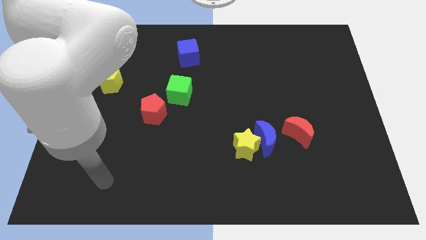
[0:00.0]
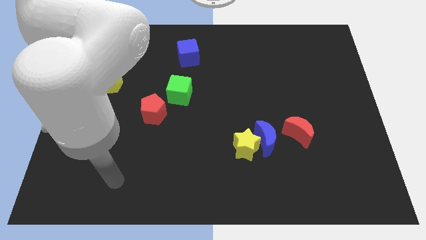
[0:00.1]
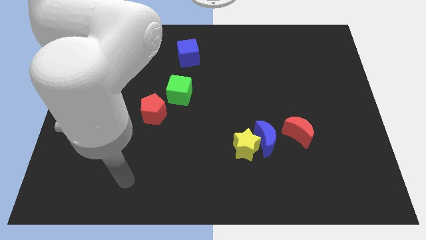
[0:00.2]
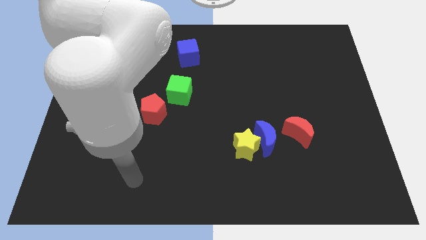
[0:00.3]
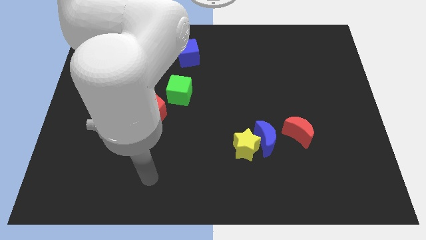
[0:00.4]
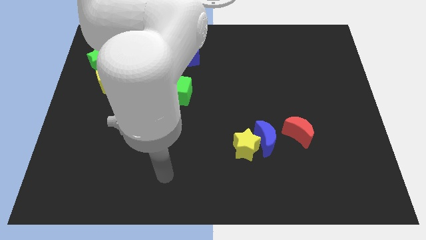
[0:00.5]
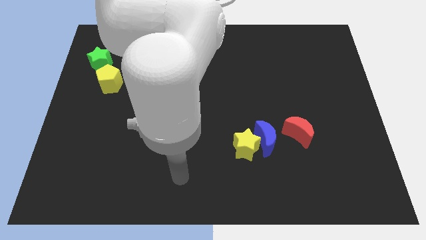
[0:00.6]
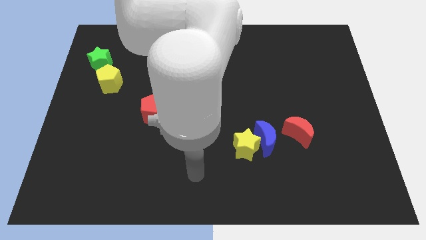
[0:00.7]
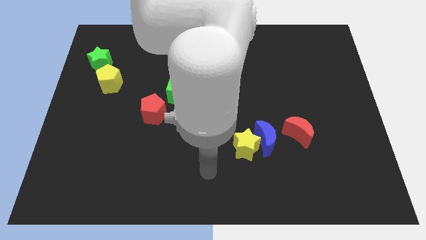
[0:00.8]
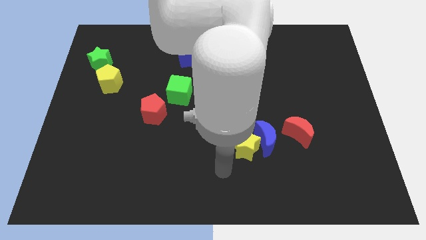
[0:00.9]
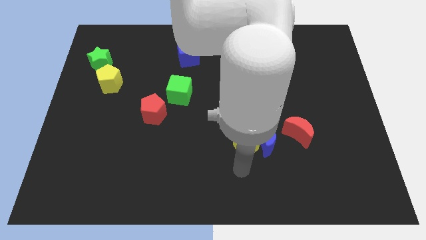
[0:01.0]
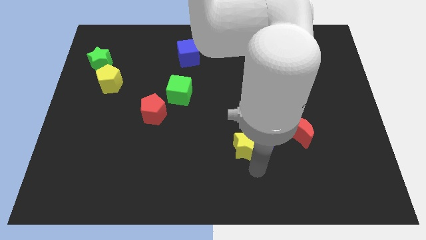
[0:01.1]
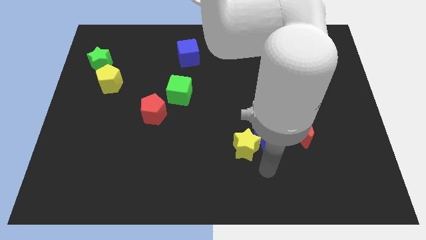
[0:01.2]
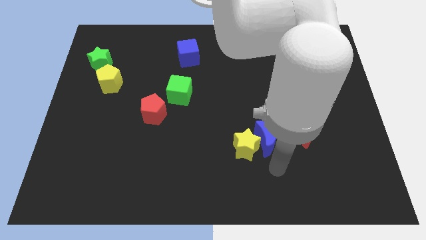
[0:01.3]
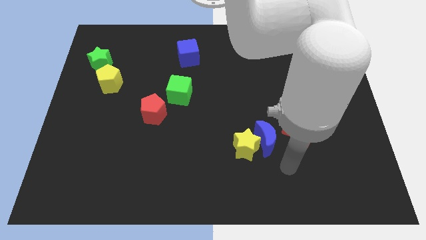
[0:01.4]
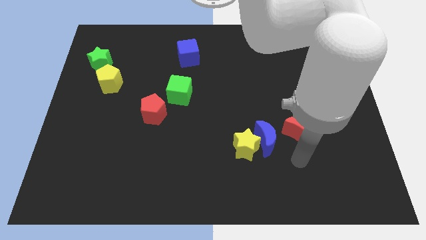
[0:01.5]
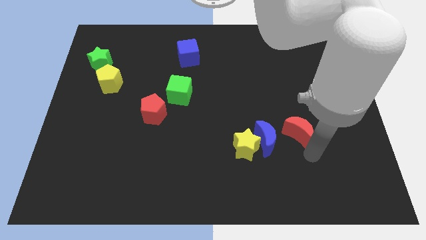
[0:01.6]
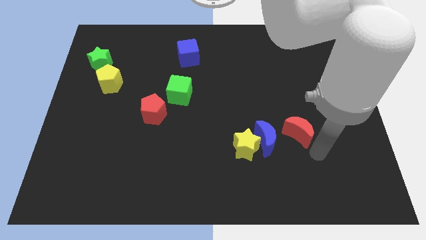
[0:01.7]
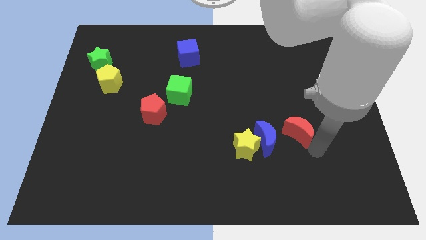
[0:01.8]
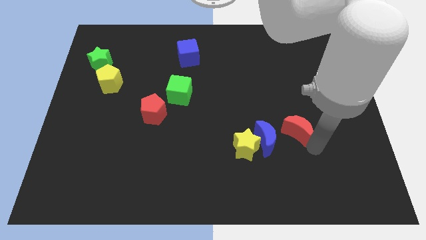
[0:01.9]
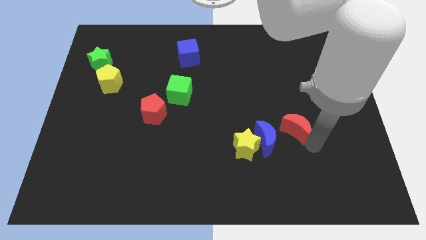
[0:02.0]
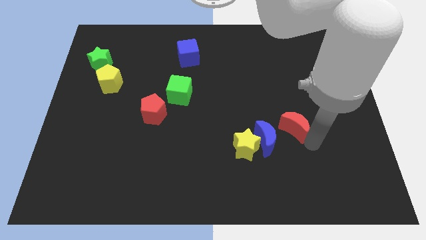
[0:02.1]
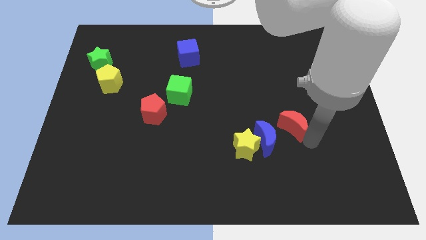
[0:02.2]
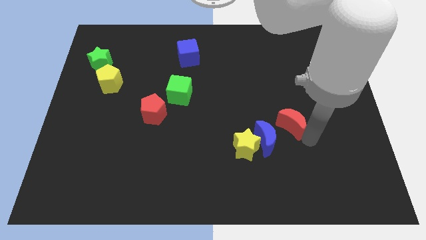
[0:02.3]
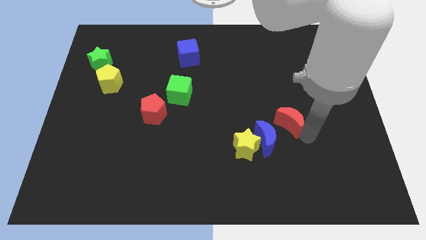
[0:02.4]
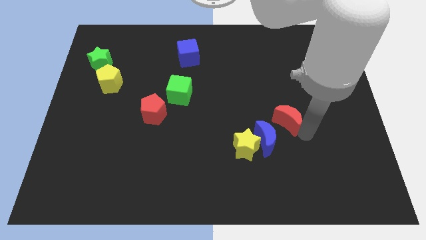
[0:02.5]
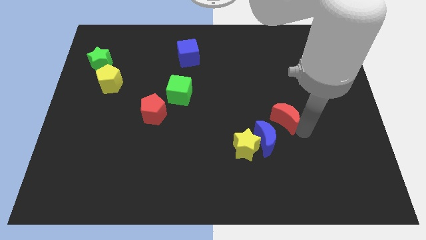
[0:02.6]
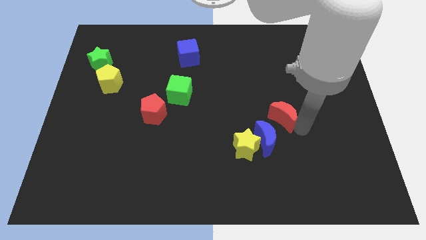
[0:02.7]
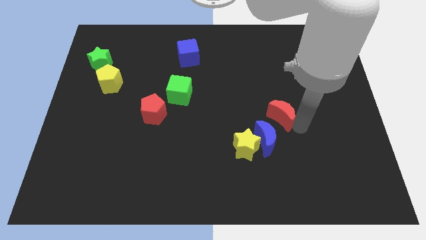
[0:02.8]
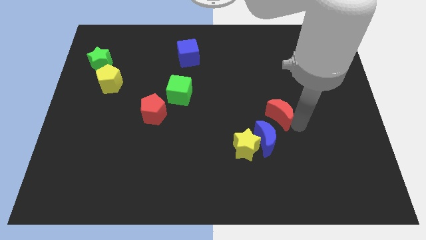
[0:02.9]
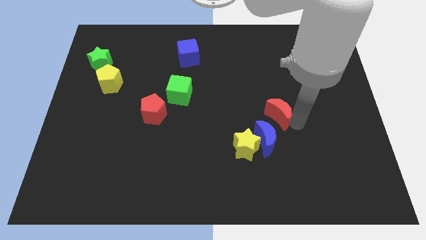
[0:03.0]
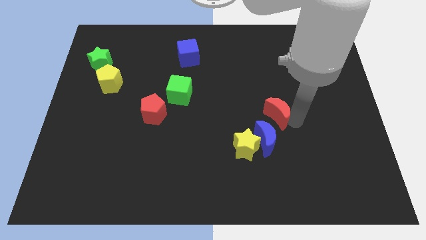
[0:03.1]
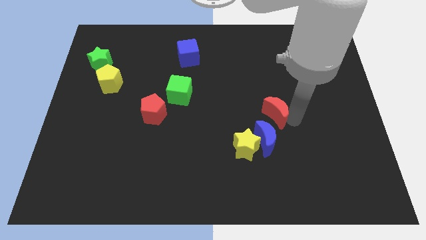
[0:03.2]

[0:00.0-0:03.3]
move the red moon a little upwards and left diagonally

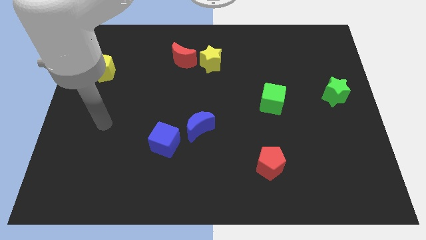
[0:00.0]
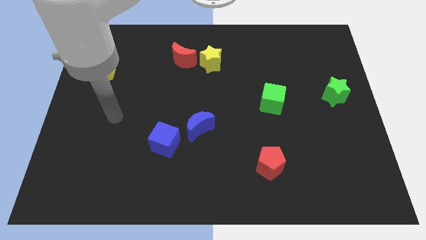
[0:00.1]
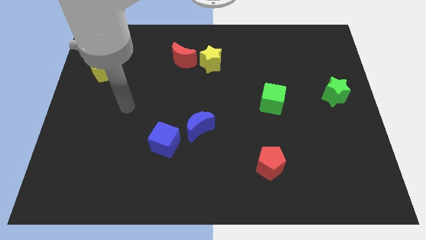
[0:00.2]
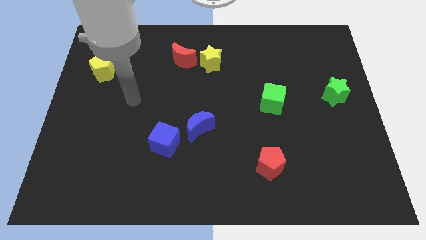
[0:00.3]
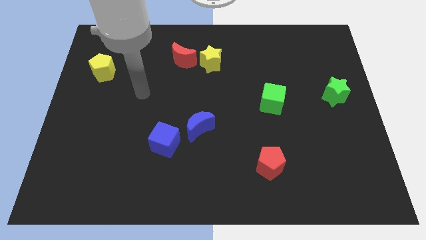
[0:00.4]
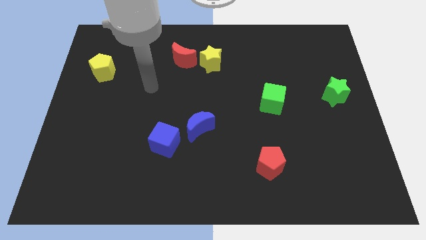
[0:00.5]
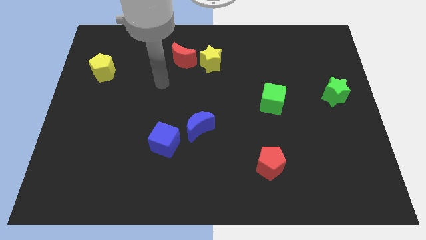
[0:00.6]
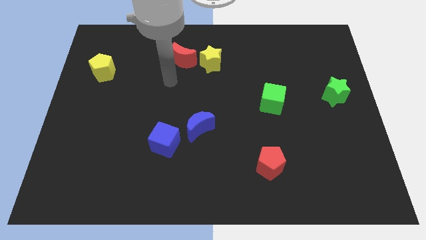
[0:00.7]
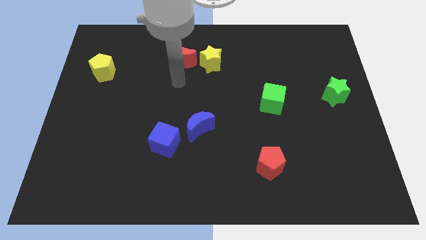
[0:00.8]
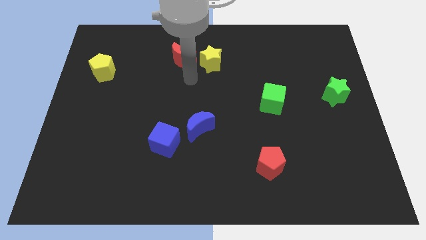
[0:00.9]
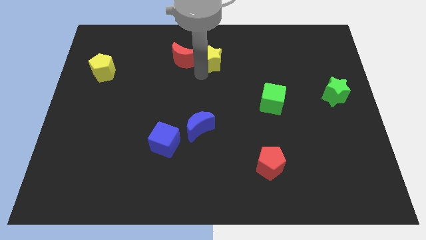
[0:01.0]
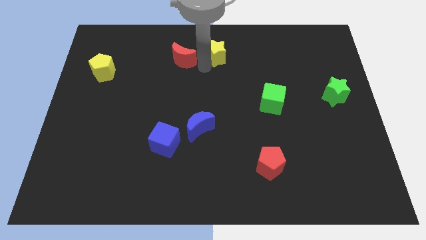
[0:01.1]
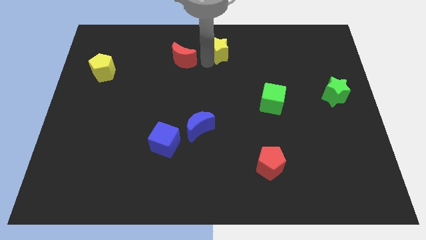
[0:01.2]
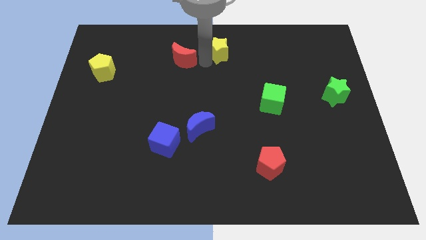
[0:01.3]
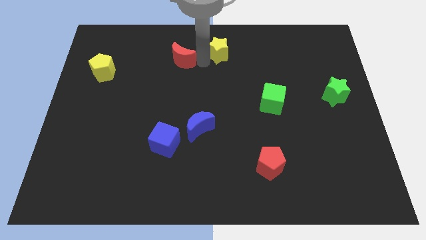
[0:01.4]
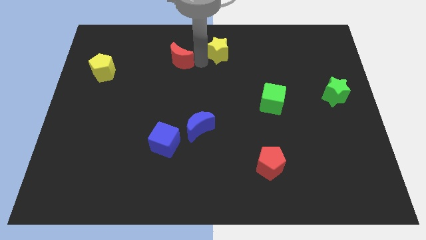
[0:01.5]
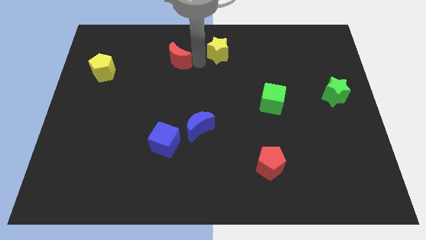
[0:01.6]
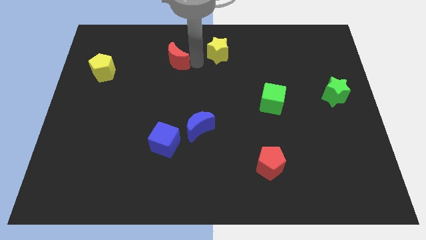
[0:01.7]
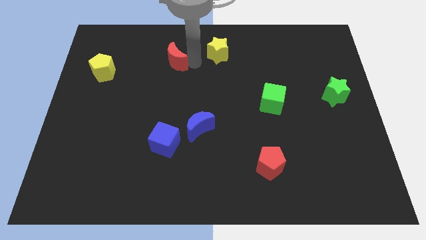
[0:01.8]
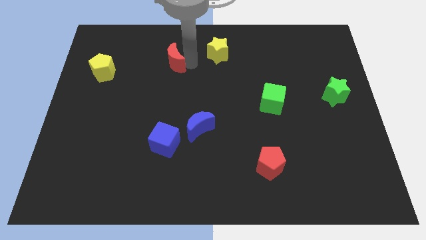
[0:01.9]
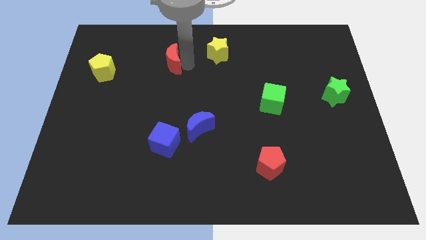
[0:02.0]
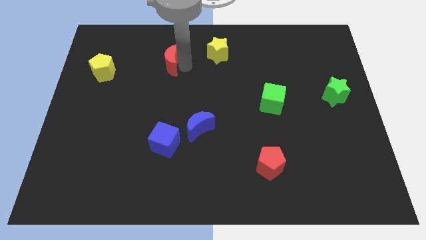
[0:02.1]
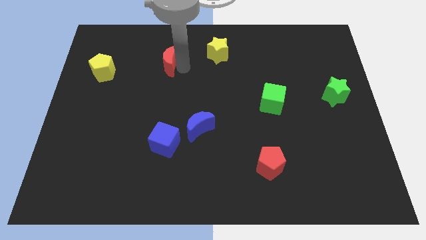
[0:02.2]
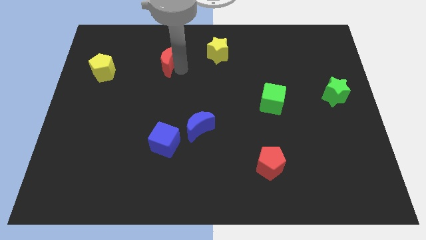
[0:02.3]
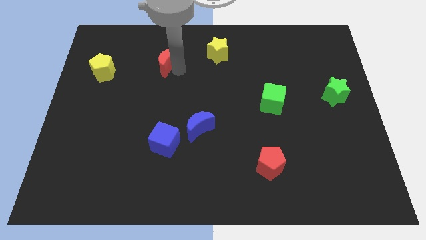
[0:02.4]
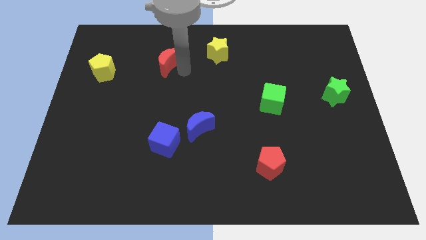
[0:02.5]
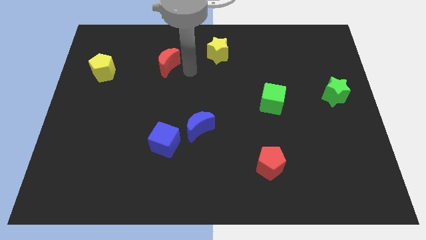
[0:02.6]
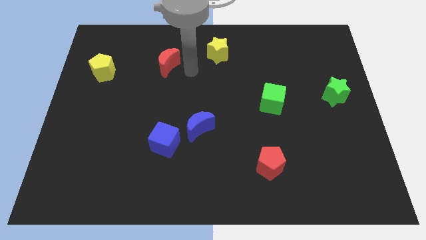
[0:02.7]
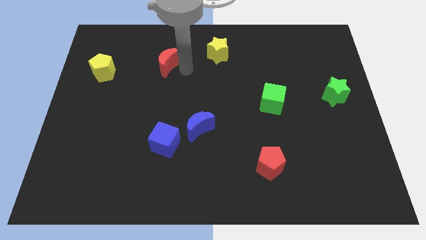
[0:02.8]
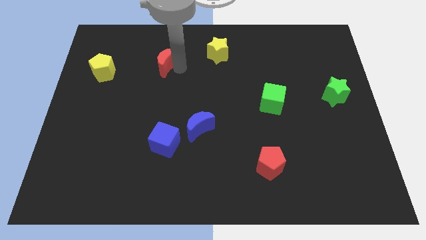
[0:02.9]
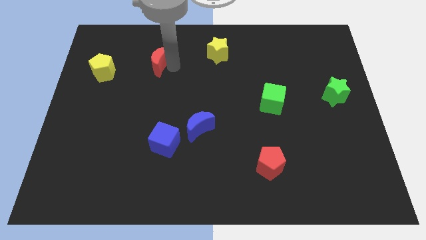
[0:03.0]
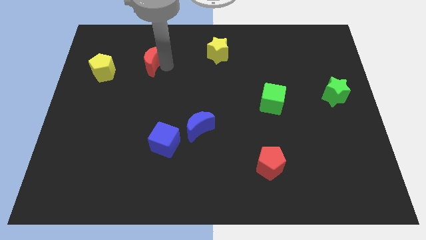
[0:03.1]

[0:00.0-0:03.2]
slightly push the red moon left

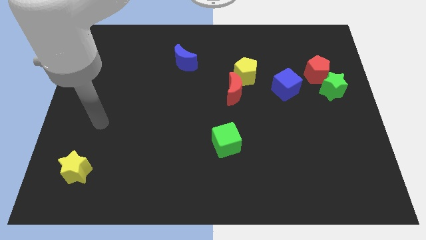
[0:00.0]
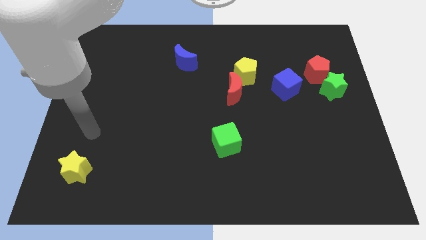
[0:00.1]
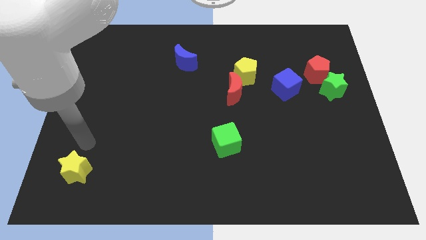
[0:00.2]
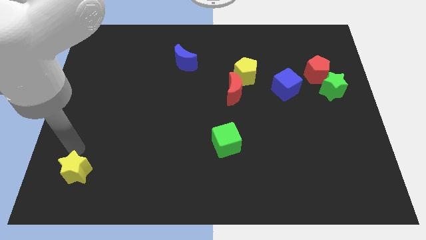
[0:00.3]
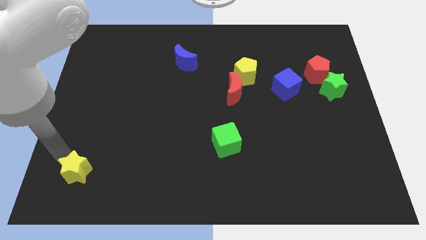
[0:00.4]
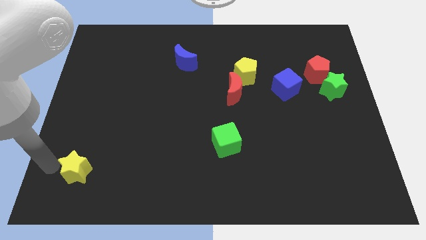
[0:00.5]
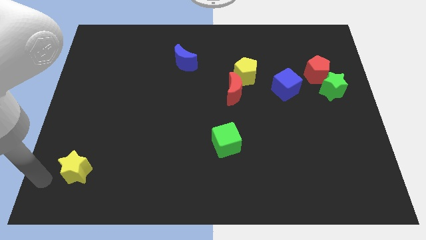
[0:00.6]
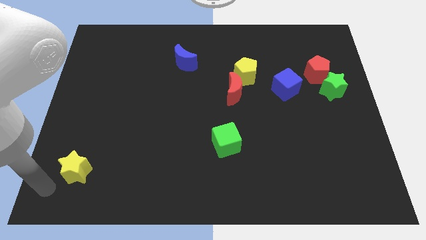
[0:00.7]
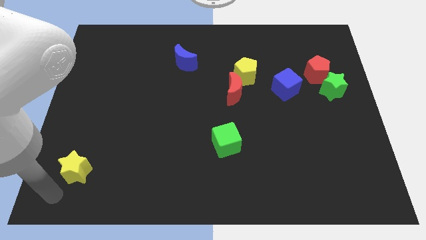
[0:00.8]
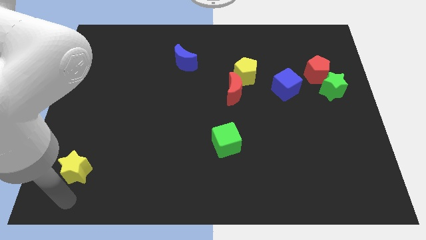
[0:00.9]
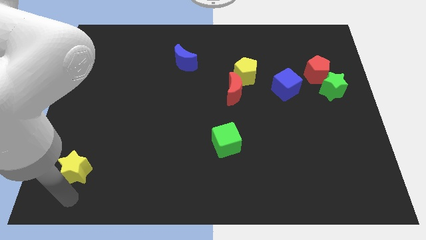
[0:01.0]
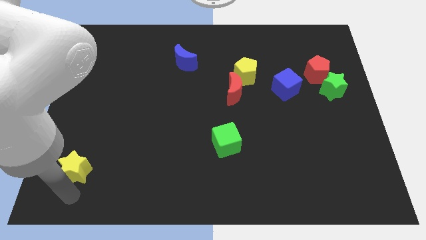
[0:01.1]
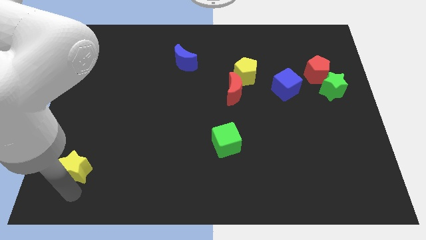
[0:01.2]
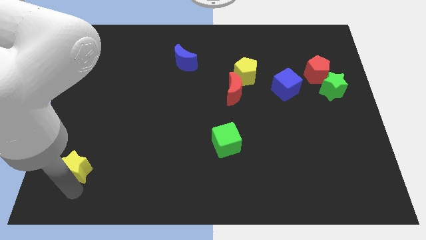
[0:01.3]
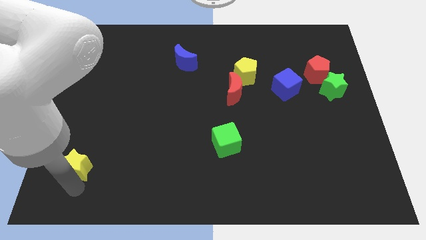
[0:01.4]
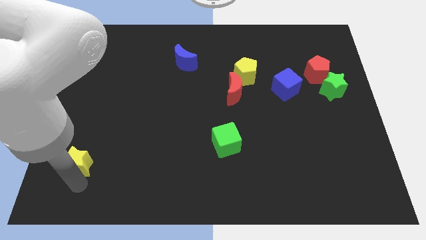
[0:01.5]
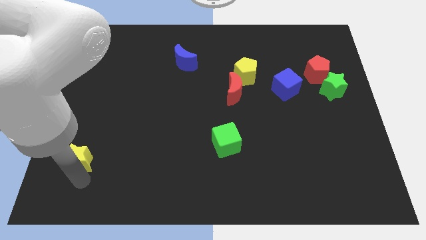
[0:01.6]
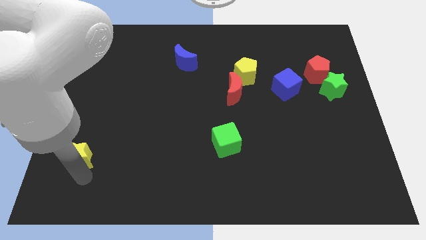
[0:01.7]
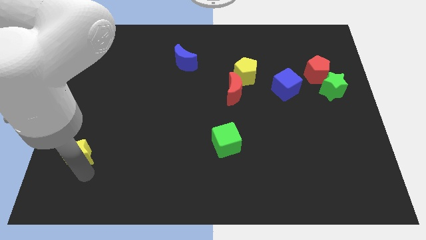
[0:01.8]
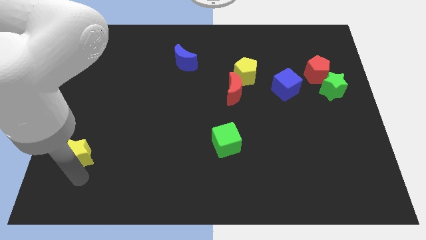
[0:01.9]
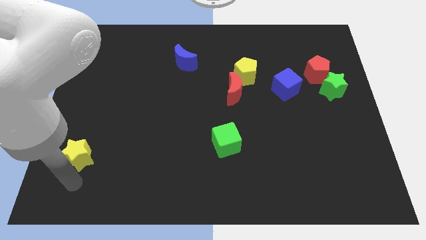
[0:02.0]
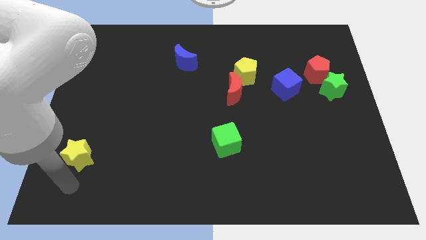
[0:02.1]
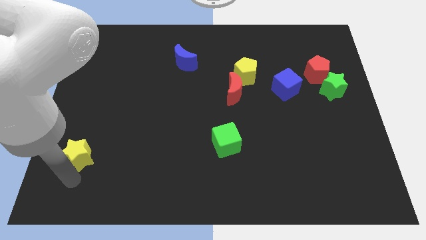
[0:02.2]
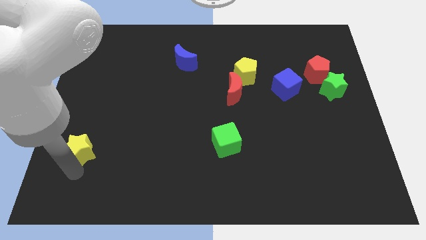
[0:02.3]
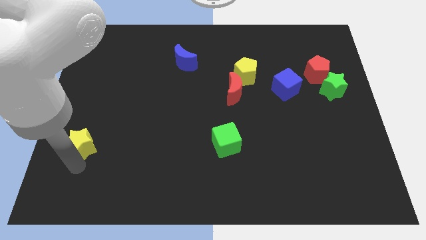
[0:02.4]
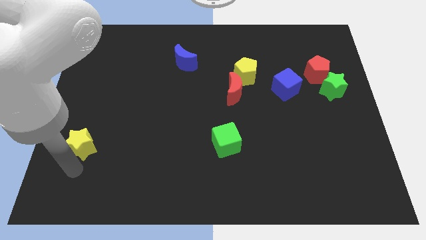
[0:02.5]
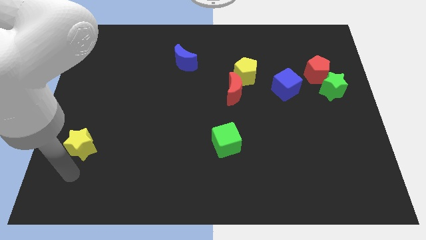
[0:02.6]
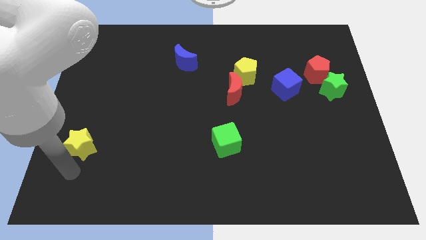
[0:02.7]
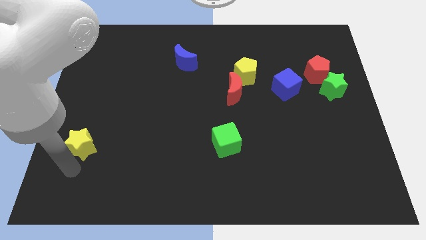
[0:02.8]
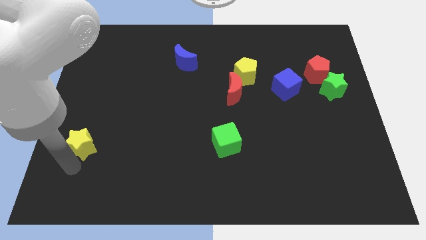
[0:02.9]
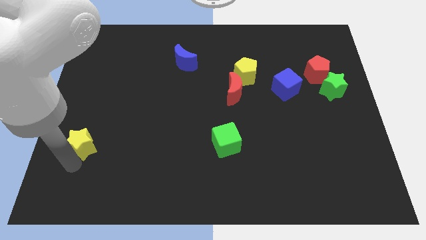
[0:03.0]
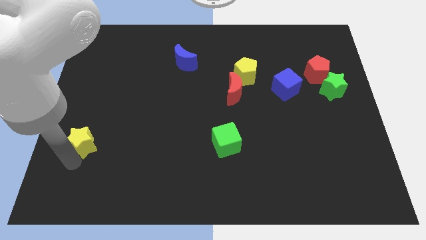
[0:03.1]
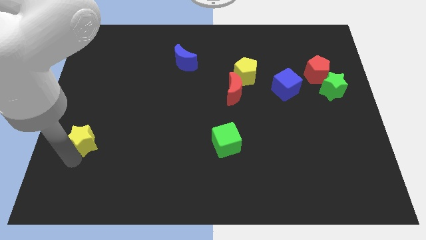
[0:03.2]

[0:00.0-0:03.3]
move the yellow star a bit upwards
